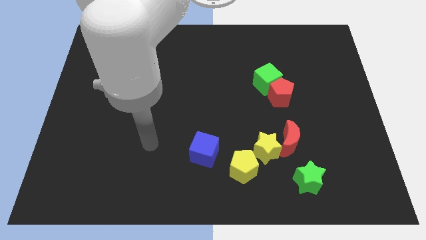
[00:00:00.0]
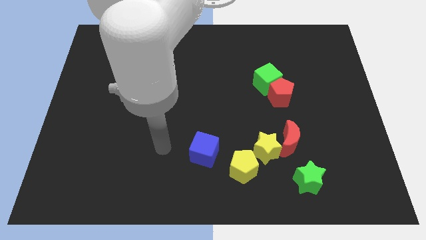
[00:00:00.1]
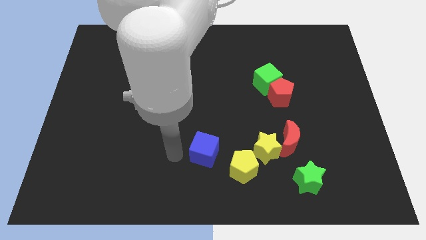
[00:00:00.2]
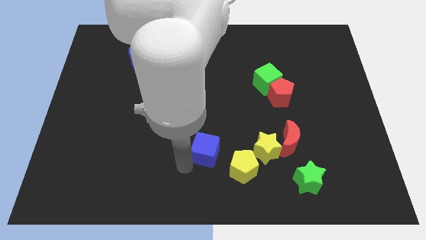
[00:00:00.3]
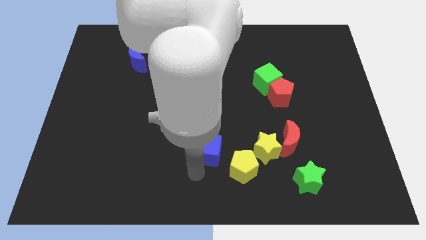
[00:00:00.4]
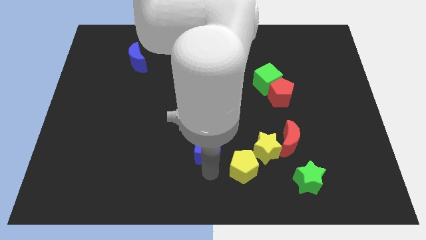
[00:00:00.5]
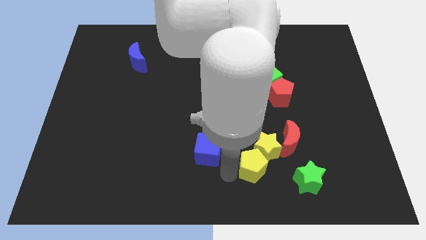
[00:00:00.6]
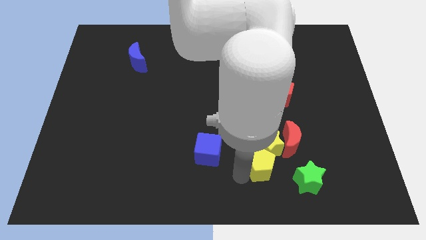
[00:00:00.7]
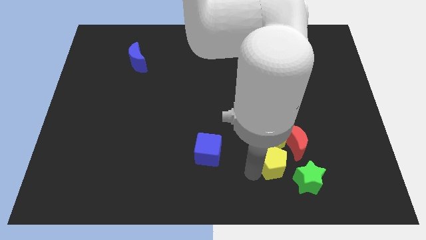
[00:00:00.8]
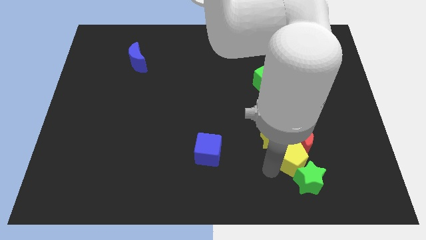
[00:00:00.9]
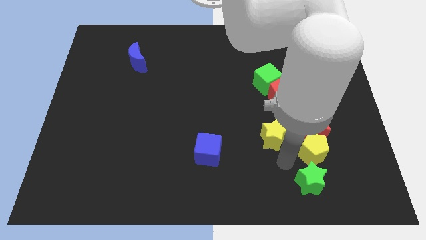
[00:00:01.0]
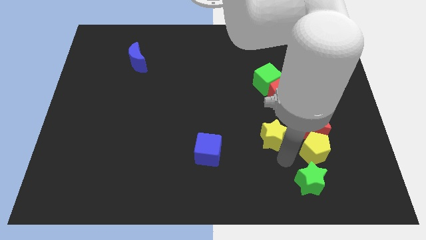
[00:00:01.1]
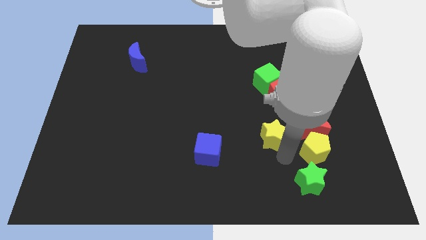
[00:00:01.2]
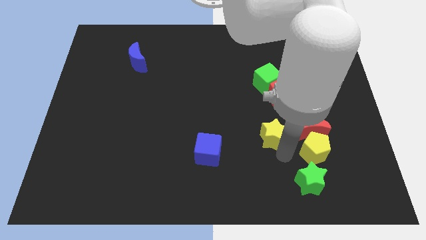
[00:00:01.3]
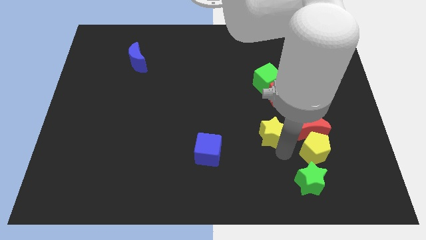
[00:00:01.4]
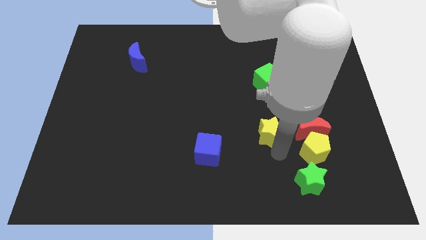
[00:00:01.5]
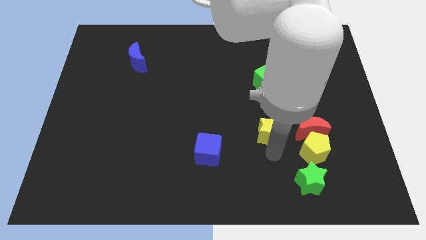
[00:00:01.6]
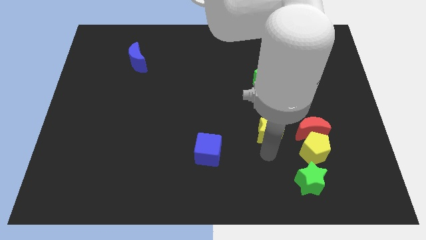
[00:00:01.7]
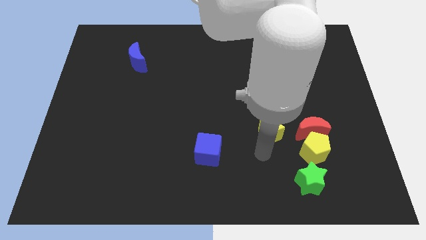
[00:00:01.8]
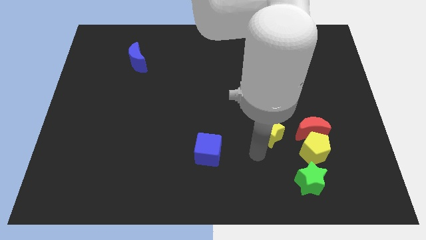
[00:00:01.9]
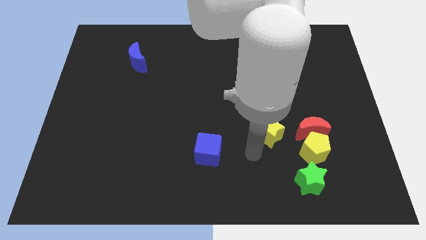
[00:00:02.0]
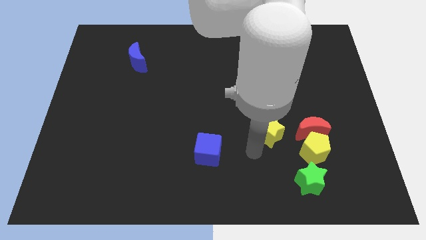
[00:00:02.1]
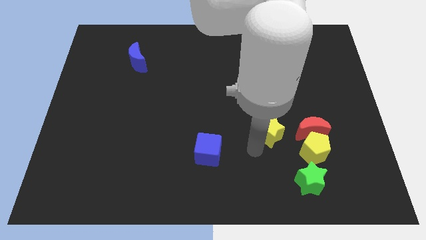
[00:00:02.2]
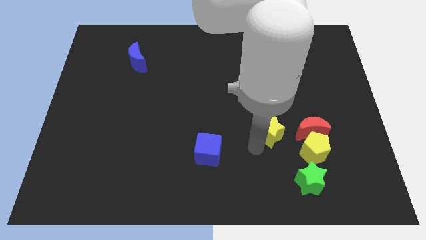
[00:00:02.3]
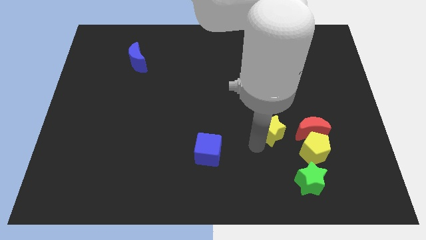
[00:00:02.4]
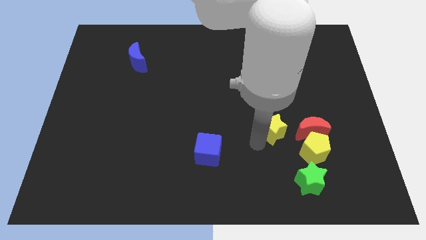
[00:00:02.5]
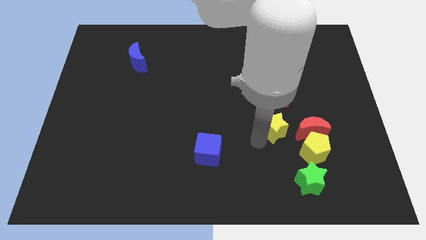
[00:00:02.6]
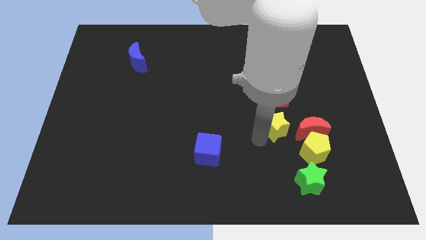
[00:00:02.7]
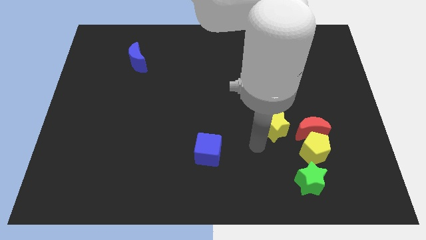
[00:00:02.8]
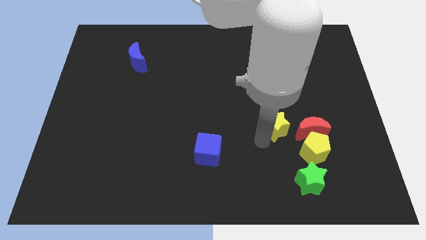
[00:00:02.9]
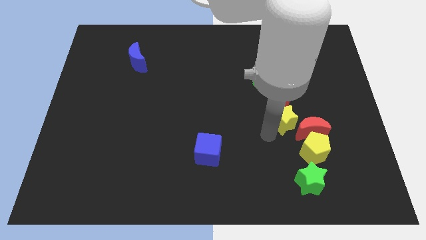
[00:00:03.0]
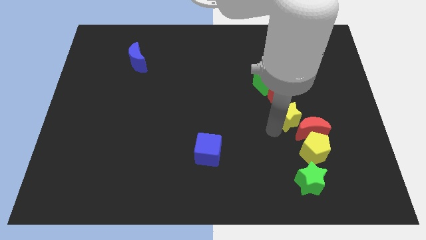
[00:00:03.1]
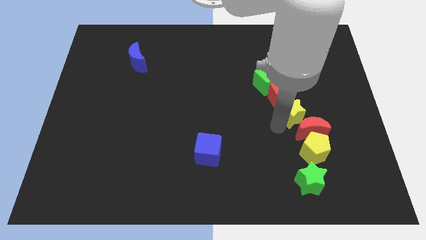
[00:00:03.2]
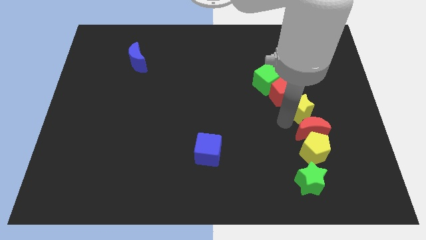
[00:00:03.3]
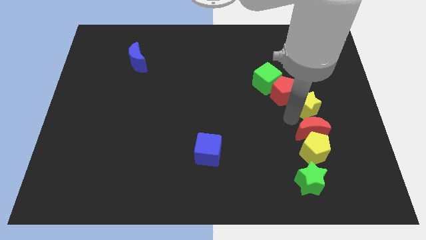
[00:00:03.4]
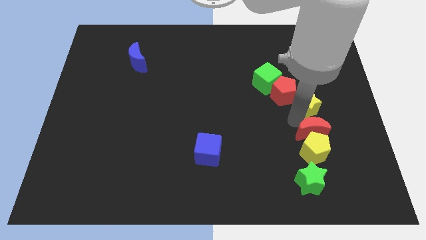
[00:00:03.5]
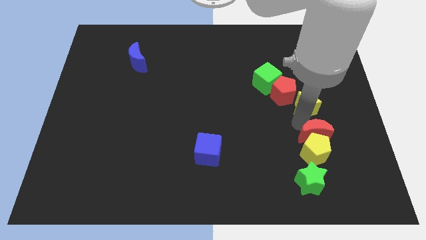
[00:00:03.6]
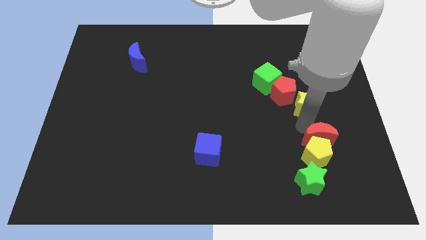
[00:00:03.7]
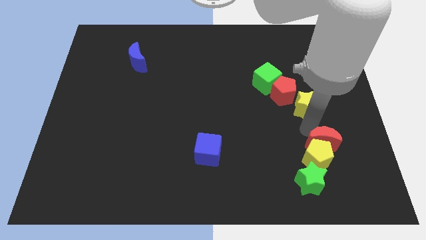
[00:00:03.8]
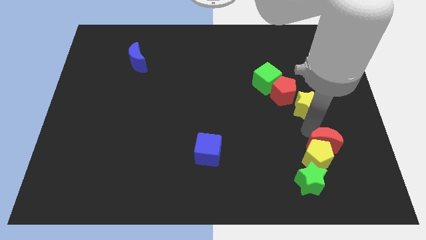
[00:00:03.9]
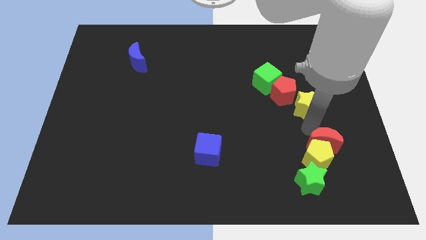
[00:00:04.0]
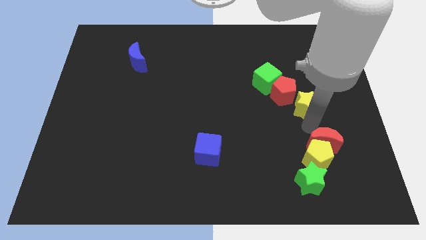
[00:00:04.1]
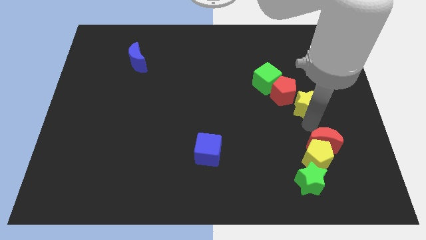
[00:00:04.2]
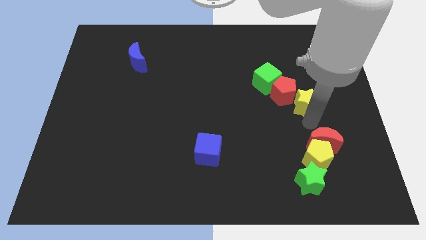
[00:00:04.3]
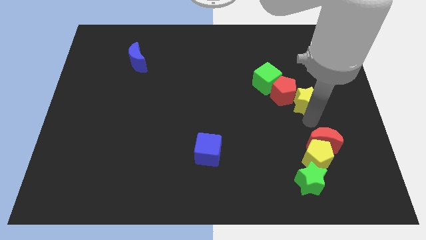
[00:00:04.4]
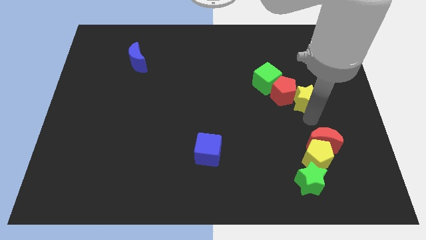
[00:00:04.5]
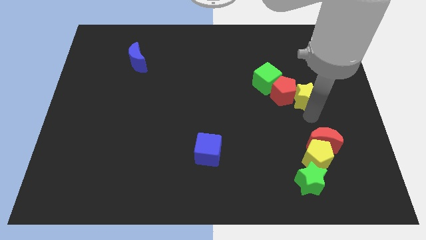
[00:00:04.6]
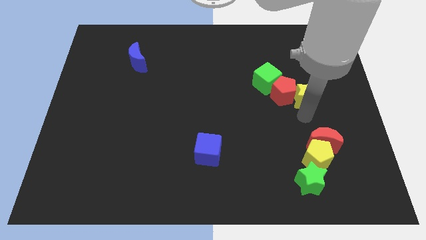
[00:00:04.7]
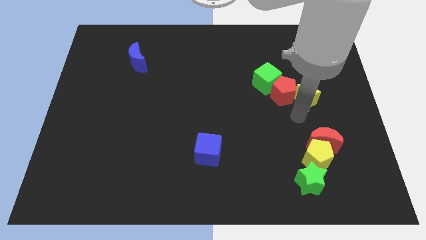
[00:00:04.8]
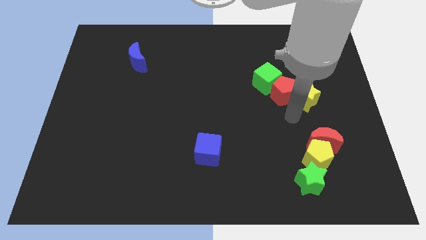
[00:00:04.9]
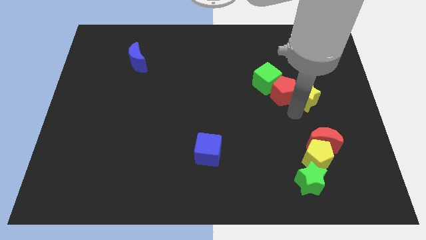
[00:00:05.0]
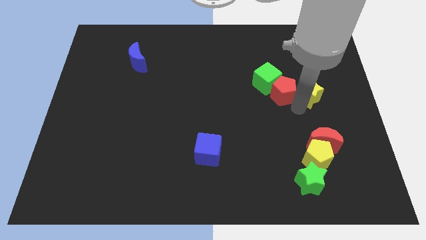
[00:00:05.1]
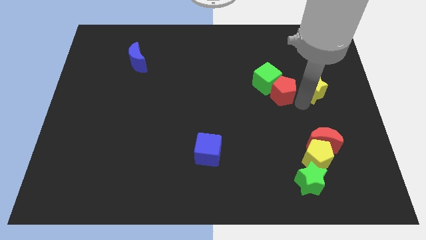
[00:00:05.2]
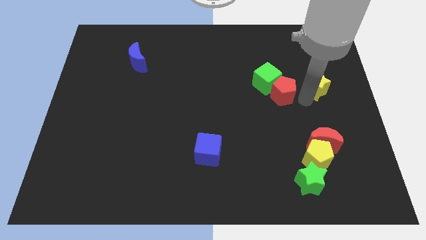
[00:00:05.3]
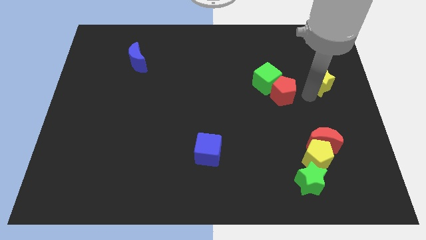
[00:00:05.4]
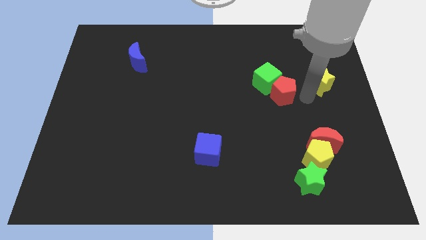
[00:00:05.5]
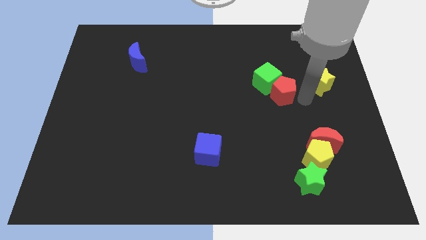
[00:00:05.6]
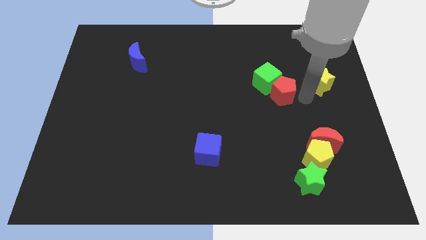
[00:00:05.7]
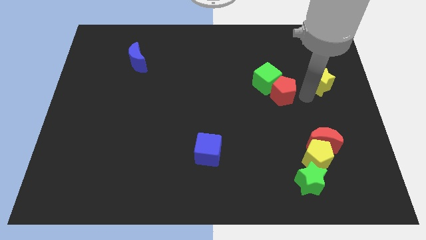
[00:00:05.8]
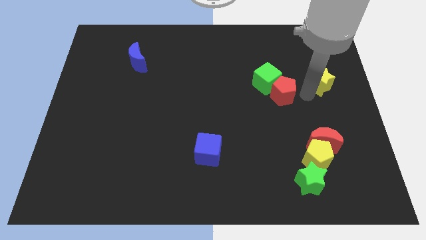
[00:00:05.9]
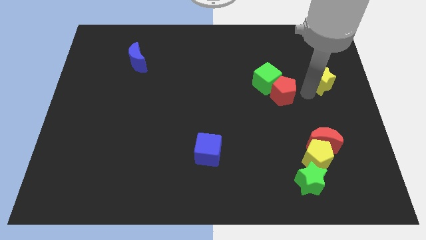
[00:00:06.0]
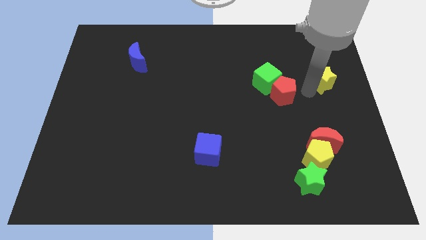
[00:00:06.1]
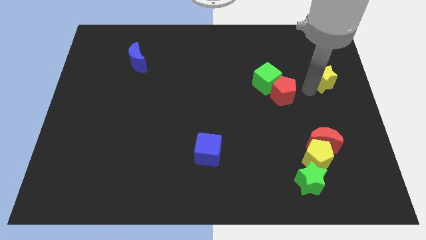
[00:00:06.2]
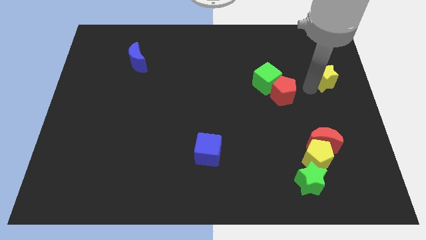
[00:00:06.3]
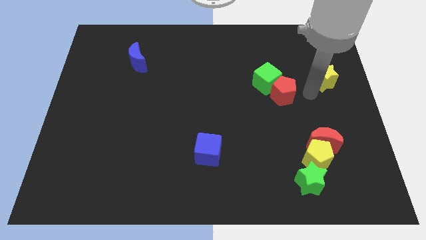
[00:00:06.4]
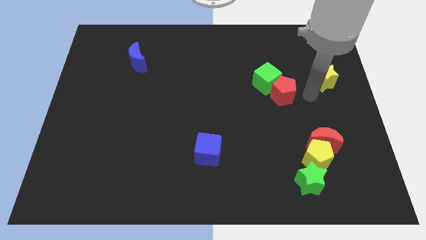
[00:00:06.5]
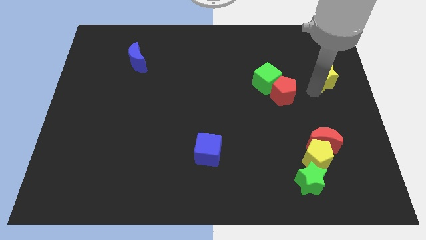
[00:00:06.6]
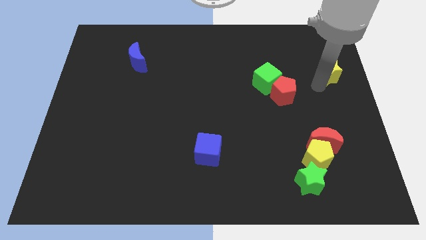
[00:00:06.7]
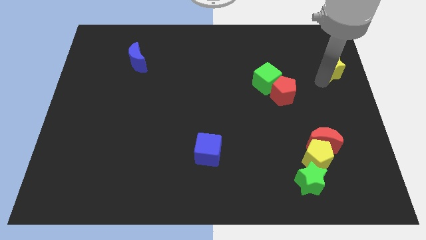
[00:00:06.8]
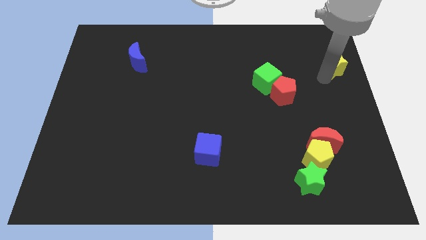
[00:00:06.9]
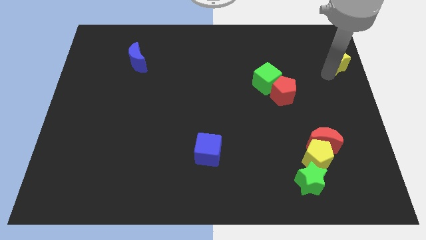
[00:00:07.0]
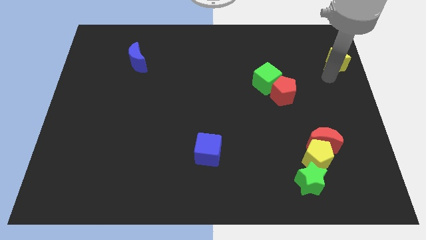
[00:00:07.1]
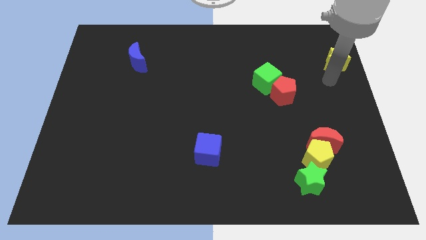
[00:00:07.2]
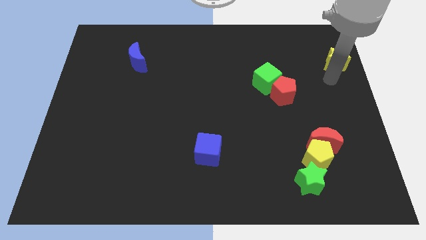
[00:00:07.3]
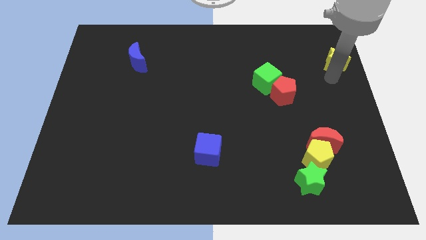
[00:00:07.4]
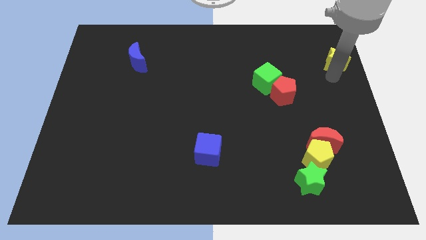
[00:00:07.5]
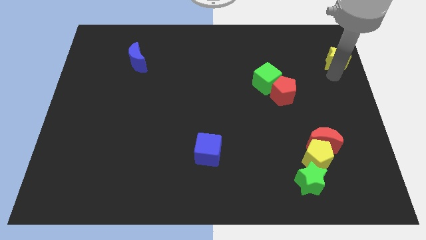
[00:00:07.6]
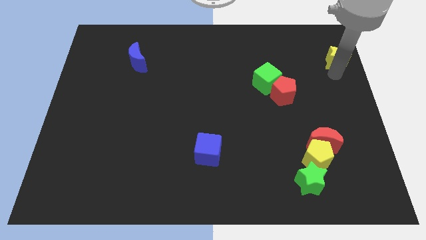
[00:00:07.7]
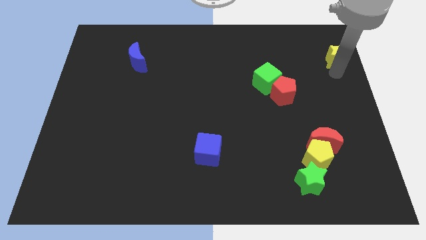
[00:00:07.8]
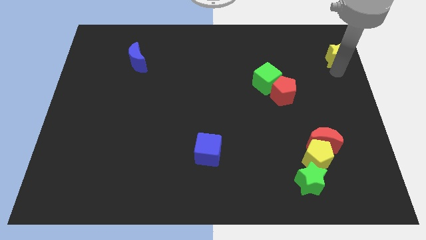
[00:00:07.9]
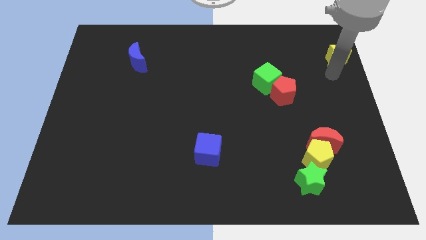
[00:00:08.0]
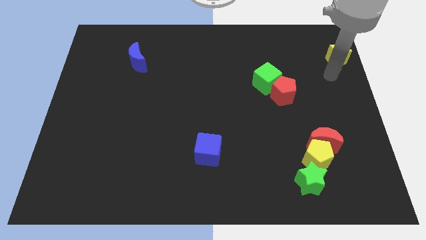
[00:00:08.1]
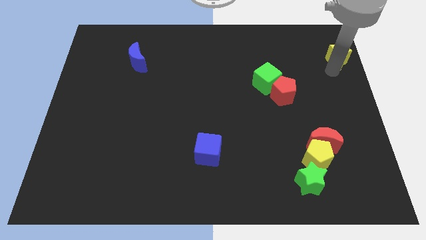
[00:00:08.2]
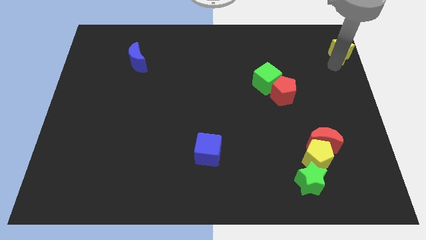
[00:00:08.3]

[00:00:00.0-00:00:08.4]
move the yellow star to the upper right corner
